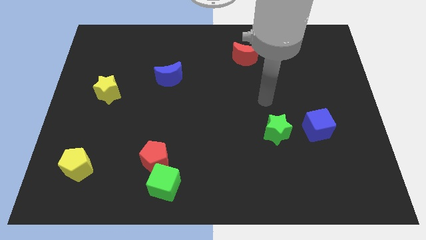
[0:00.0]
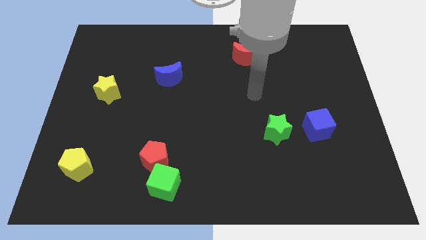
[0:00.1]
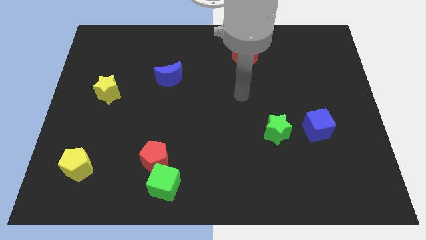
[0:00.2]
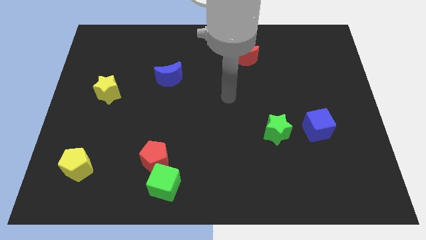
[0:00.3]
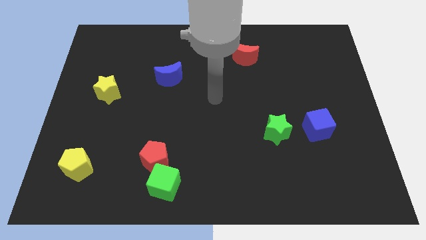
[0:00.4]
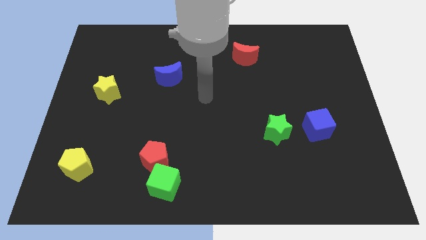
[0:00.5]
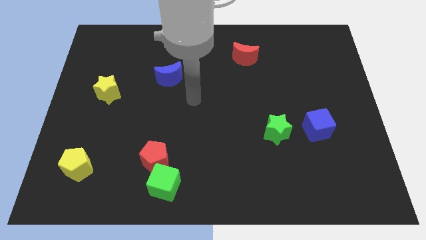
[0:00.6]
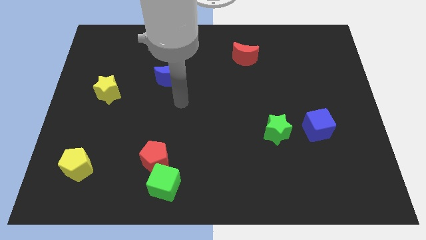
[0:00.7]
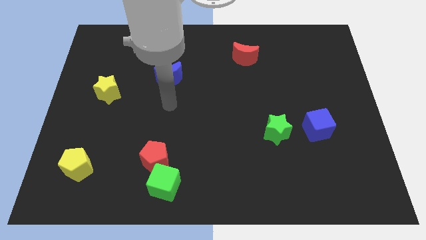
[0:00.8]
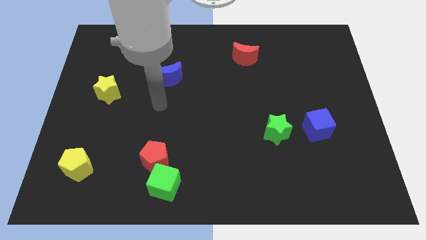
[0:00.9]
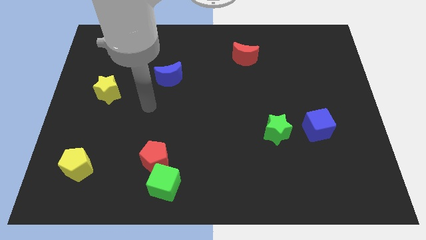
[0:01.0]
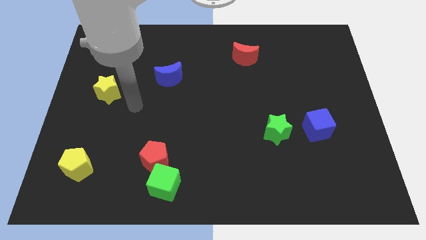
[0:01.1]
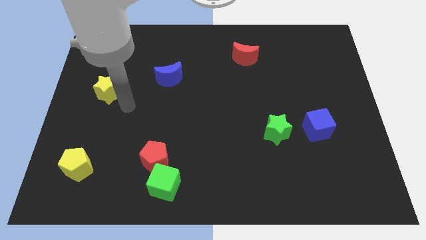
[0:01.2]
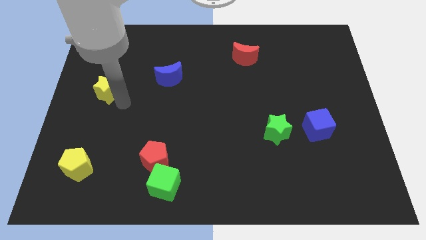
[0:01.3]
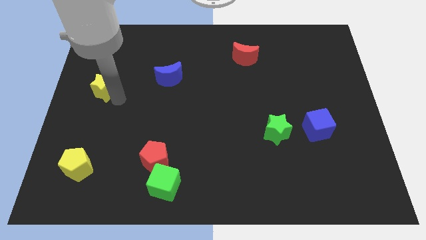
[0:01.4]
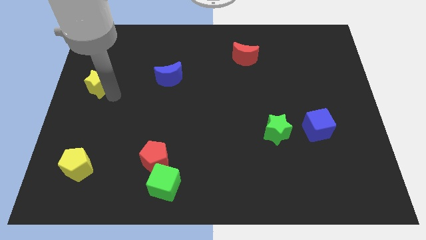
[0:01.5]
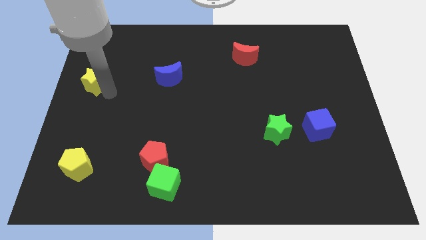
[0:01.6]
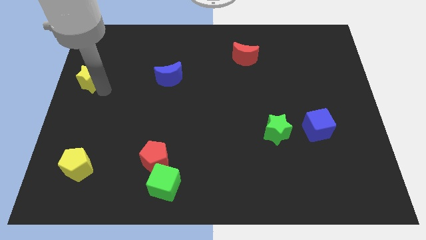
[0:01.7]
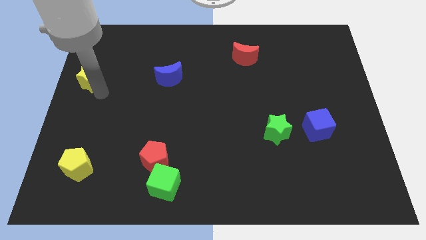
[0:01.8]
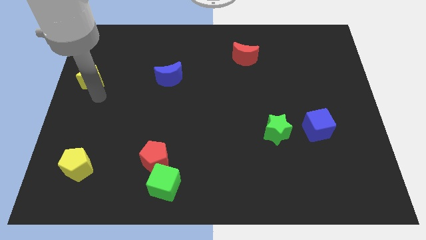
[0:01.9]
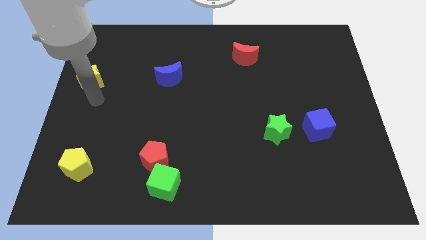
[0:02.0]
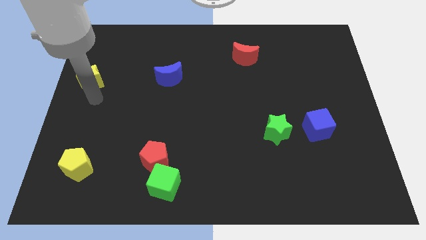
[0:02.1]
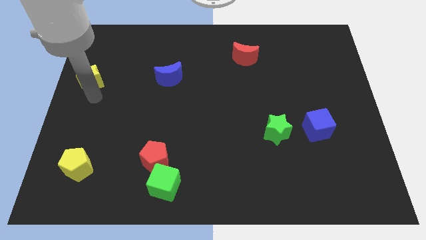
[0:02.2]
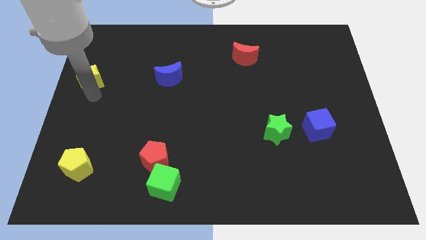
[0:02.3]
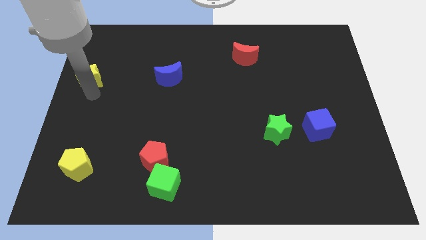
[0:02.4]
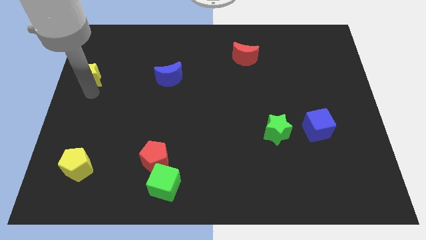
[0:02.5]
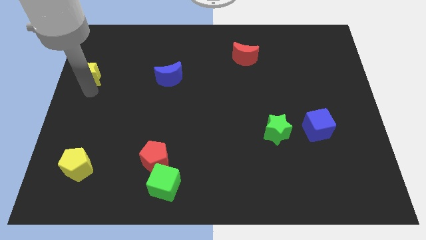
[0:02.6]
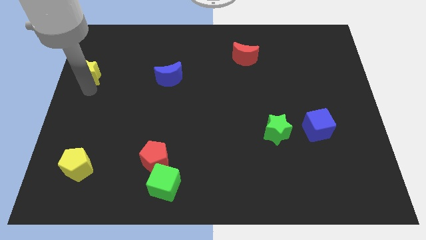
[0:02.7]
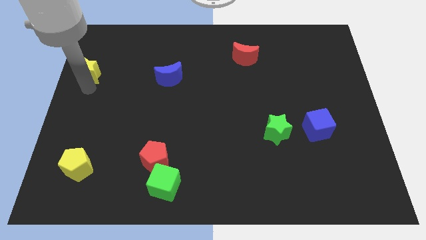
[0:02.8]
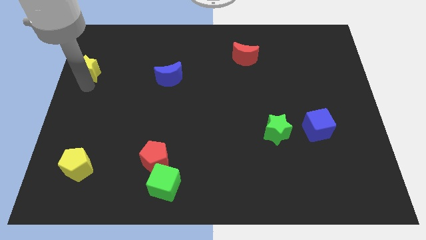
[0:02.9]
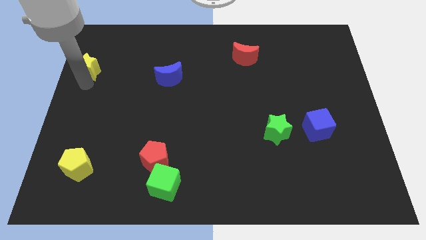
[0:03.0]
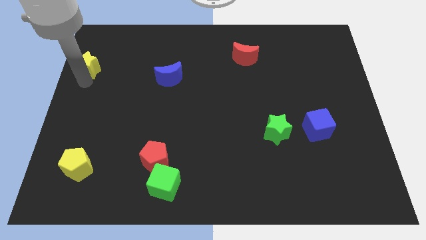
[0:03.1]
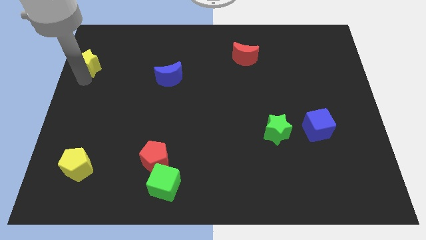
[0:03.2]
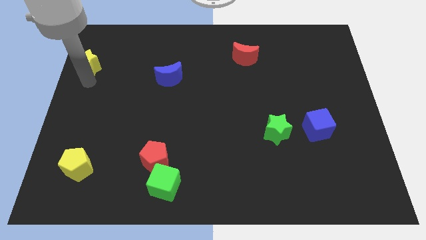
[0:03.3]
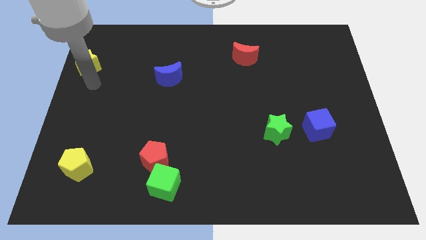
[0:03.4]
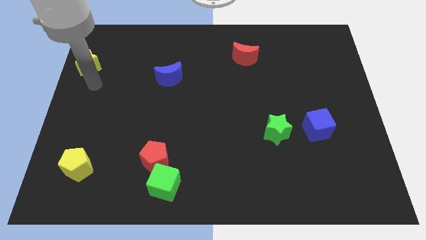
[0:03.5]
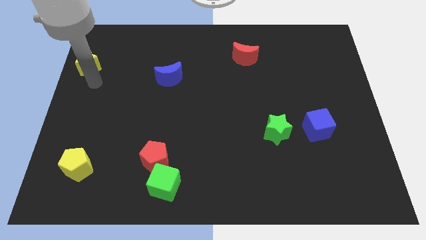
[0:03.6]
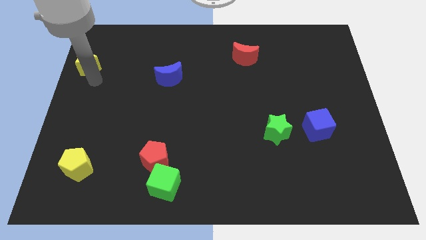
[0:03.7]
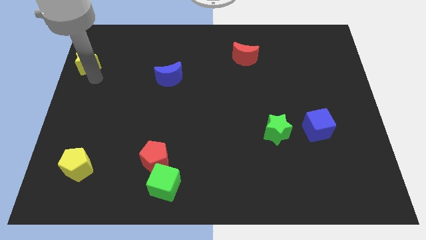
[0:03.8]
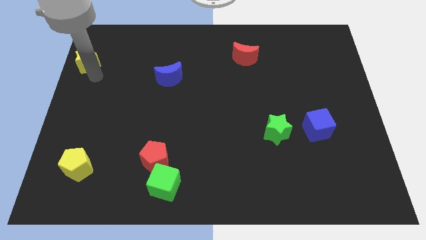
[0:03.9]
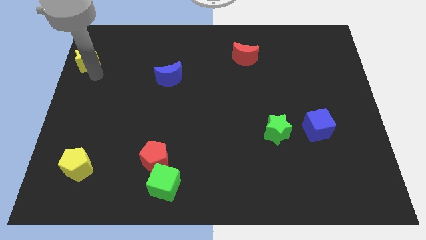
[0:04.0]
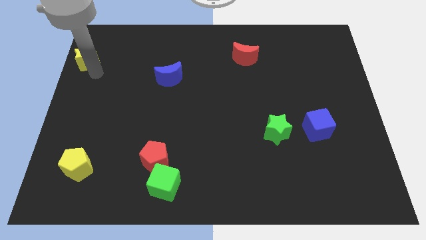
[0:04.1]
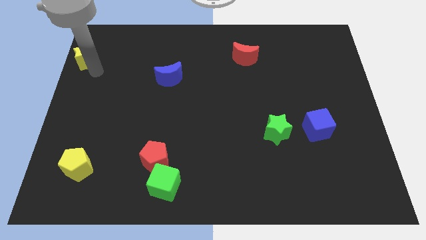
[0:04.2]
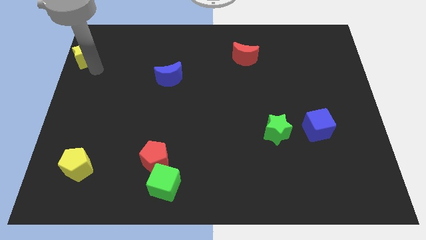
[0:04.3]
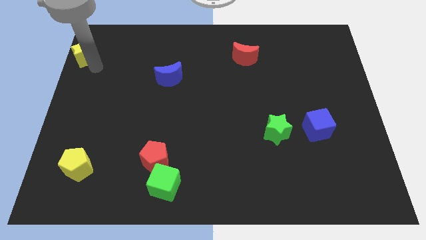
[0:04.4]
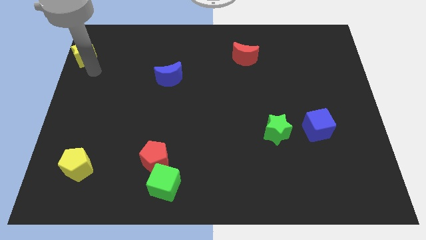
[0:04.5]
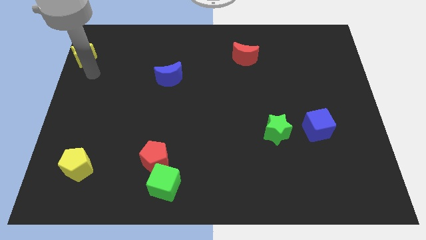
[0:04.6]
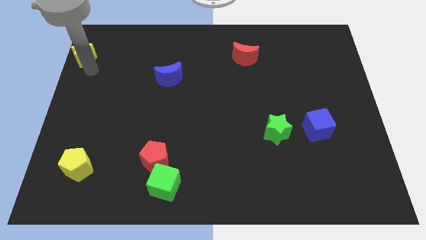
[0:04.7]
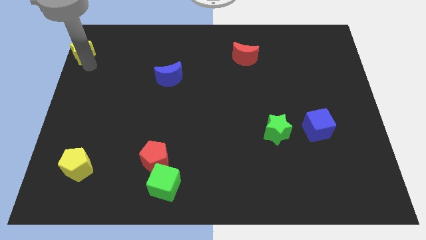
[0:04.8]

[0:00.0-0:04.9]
push the yellow star to the top left

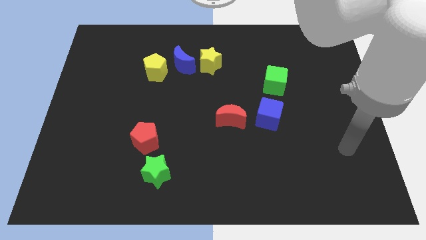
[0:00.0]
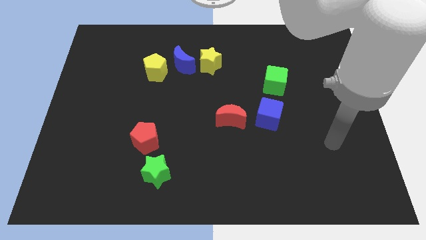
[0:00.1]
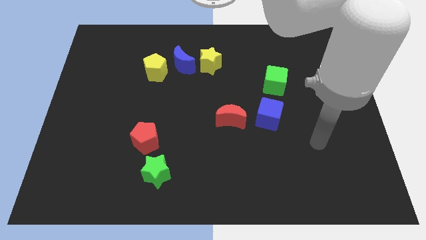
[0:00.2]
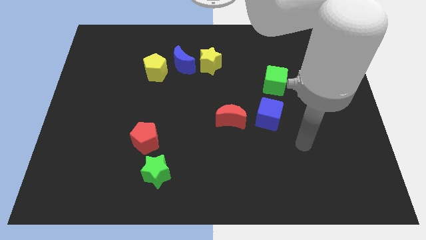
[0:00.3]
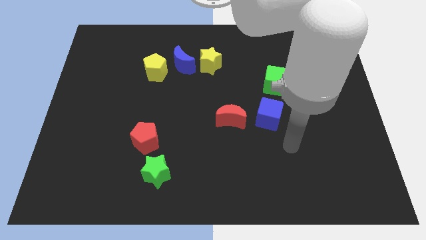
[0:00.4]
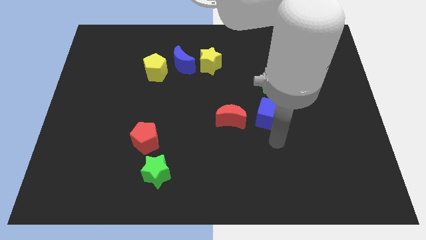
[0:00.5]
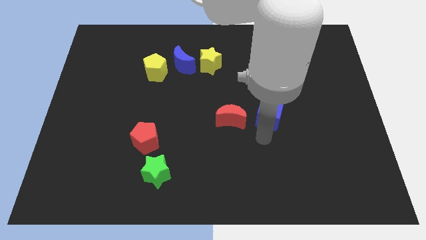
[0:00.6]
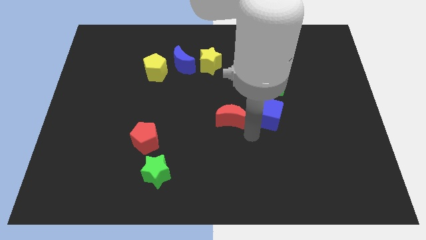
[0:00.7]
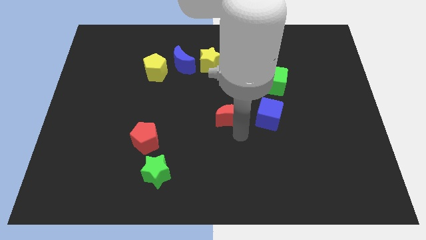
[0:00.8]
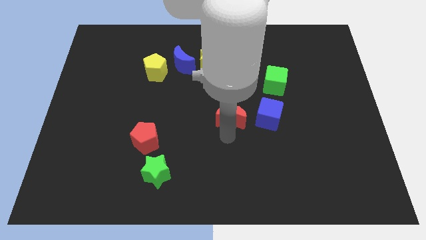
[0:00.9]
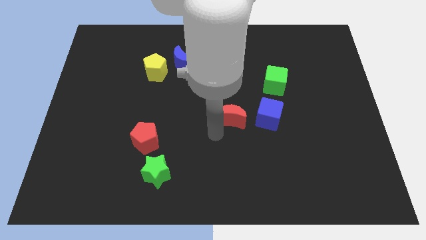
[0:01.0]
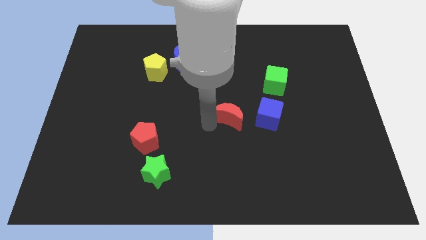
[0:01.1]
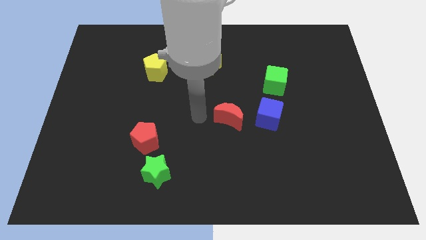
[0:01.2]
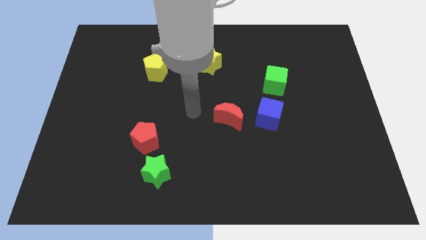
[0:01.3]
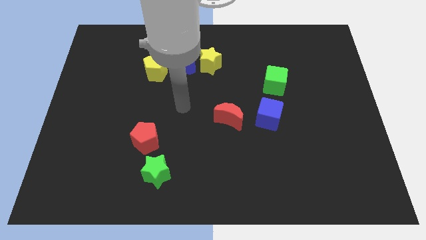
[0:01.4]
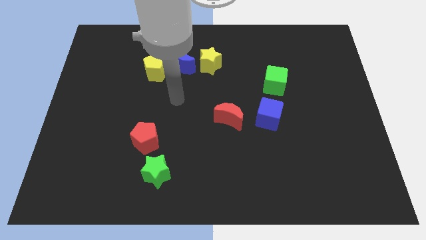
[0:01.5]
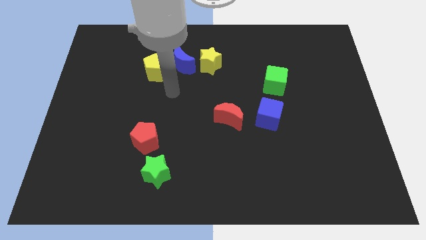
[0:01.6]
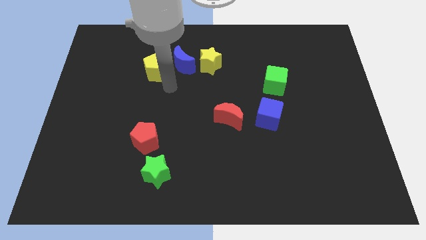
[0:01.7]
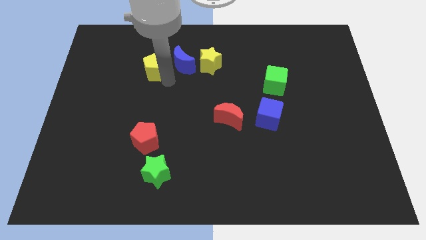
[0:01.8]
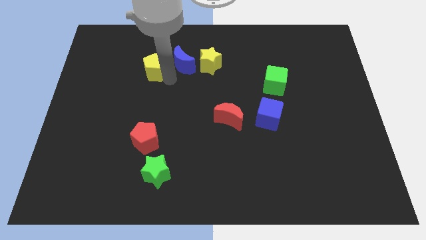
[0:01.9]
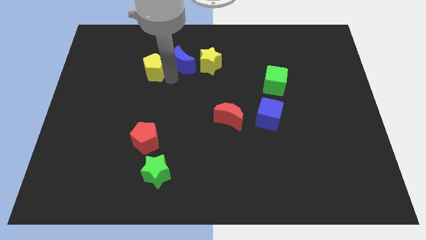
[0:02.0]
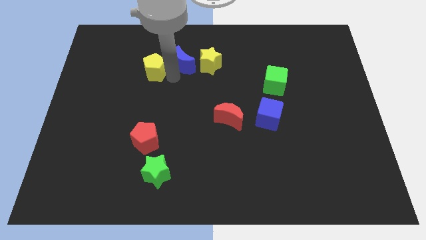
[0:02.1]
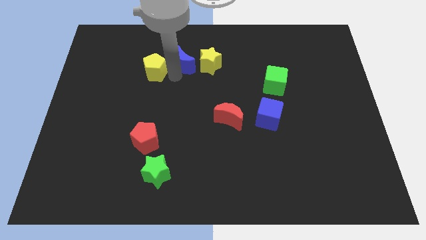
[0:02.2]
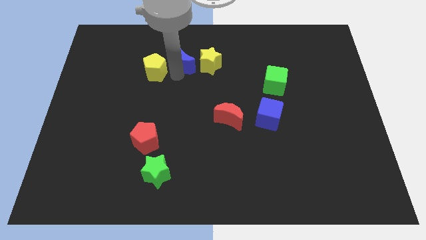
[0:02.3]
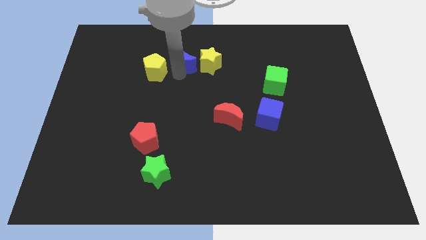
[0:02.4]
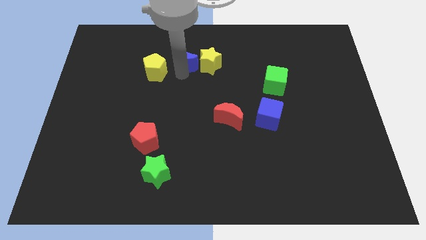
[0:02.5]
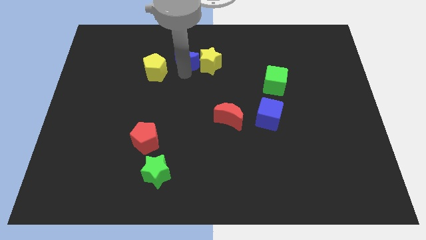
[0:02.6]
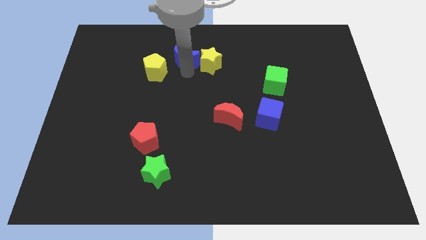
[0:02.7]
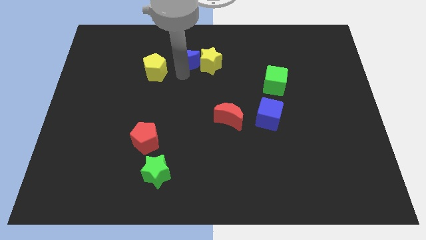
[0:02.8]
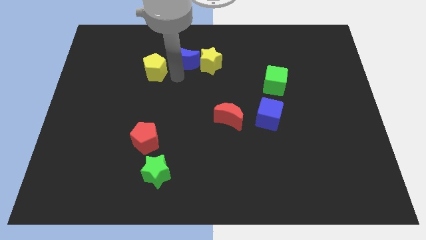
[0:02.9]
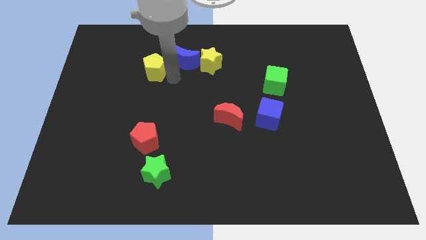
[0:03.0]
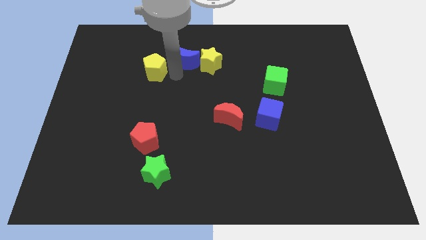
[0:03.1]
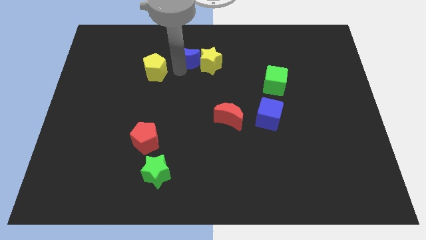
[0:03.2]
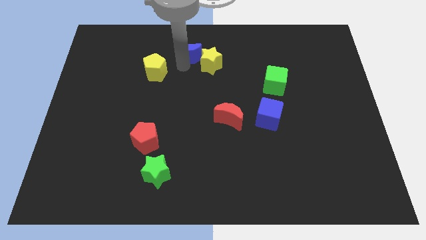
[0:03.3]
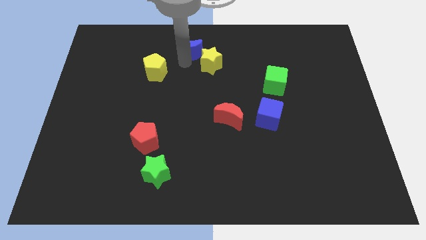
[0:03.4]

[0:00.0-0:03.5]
slide the blue moon to the top side
